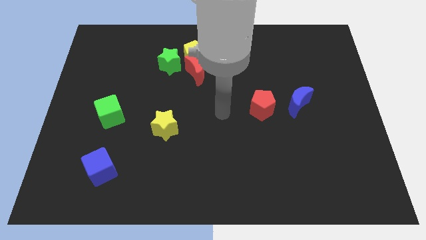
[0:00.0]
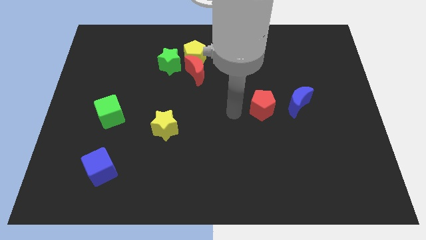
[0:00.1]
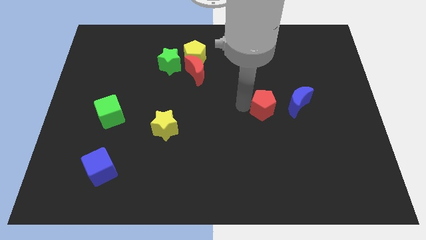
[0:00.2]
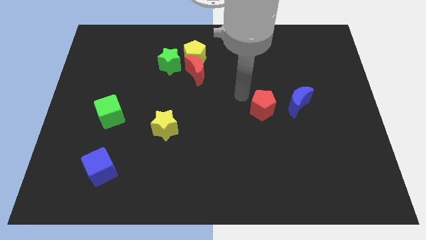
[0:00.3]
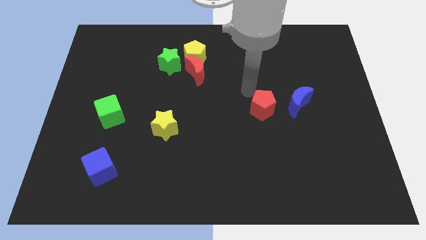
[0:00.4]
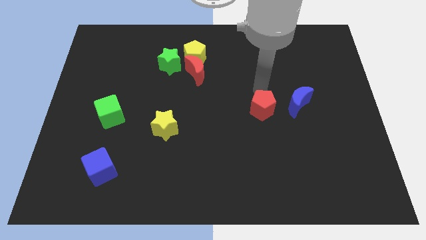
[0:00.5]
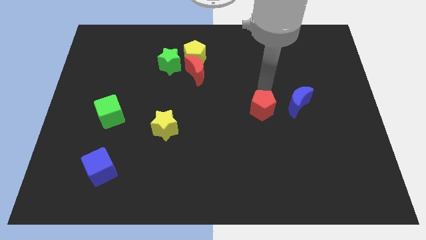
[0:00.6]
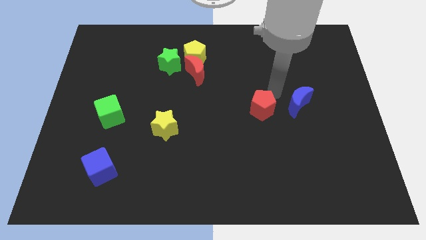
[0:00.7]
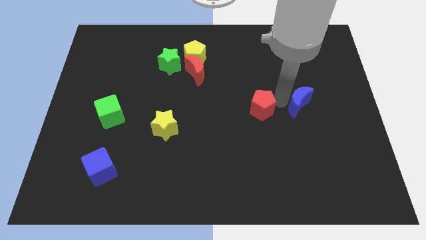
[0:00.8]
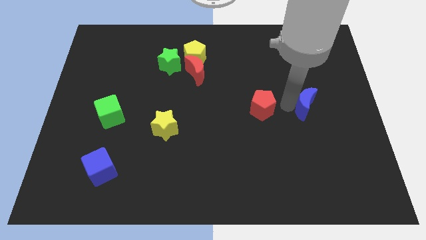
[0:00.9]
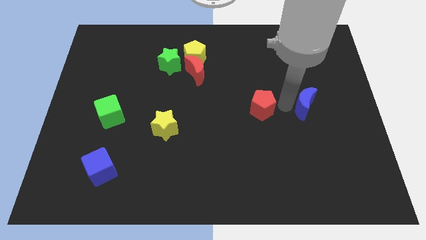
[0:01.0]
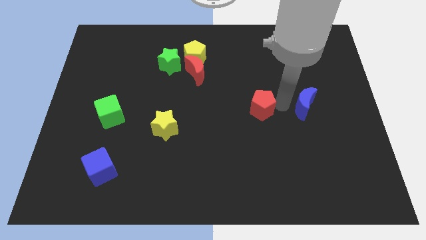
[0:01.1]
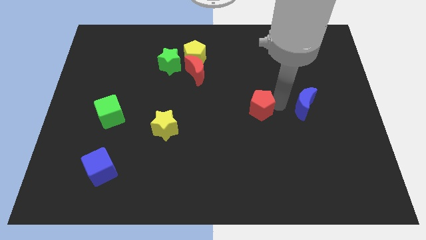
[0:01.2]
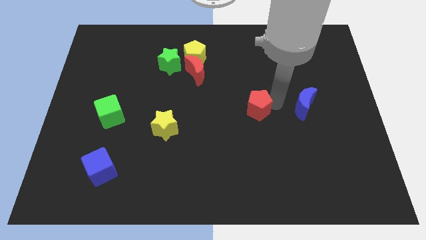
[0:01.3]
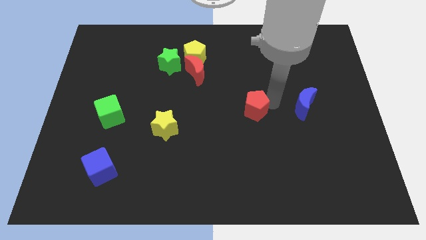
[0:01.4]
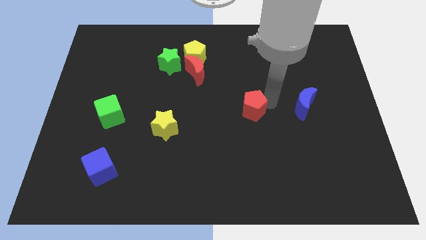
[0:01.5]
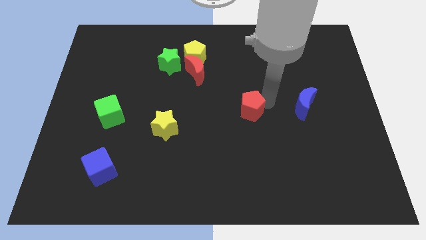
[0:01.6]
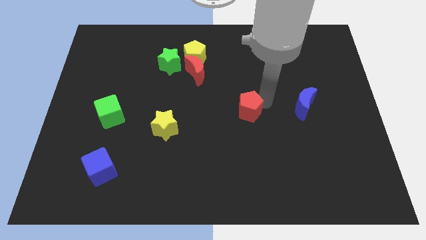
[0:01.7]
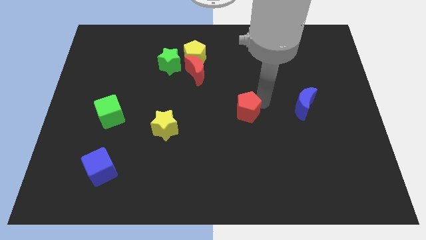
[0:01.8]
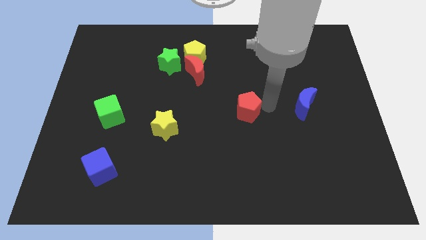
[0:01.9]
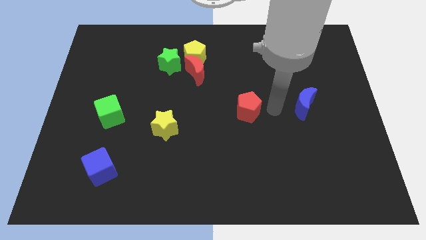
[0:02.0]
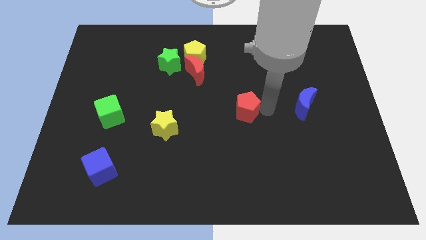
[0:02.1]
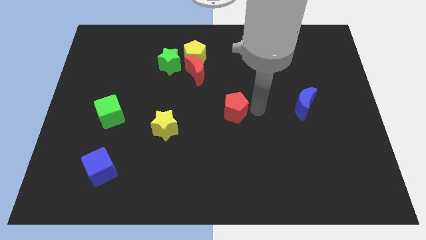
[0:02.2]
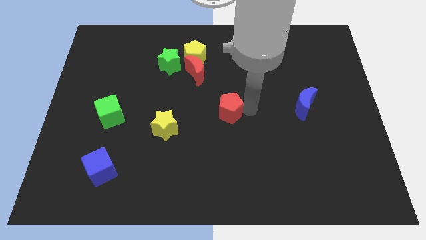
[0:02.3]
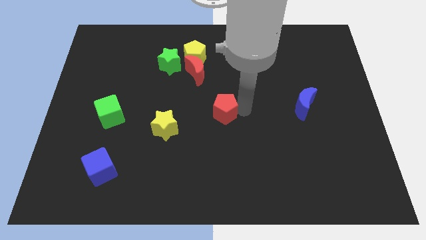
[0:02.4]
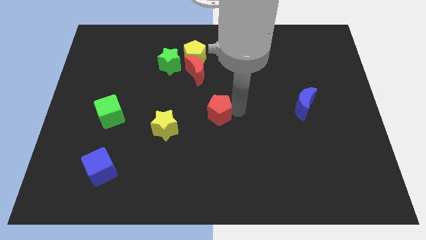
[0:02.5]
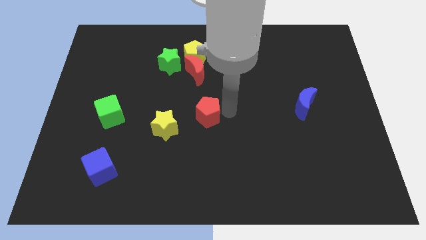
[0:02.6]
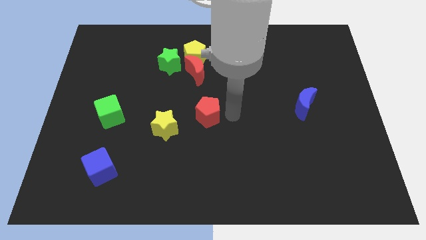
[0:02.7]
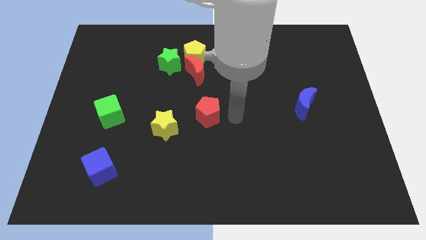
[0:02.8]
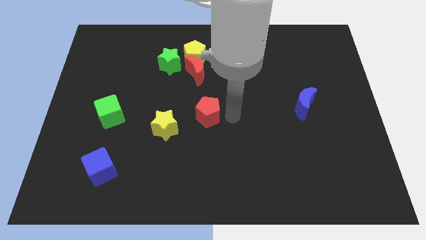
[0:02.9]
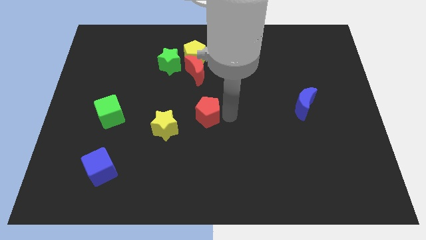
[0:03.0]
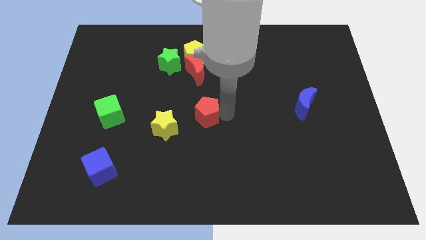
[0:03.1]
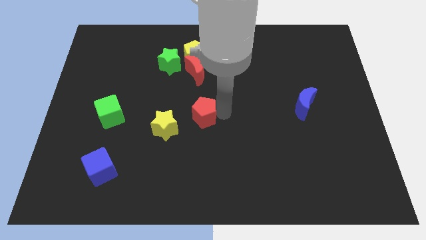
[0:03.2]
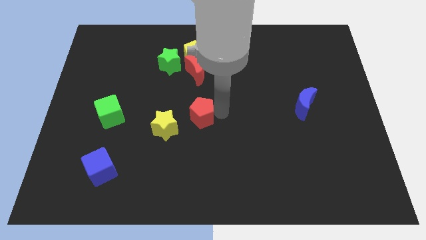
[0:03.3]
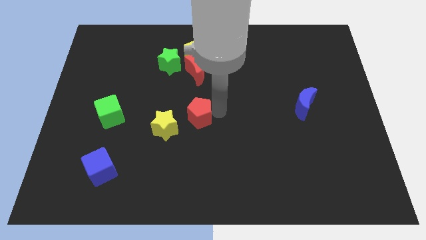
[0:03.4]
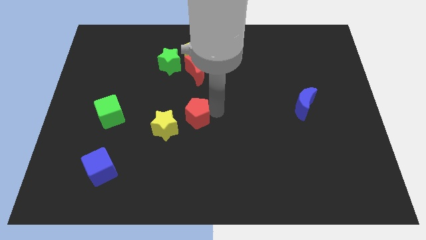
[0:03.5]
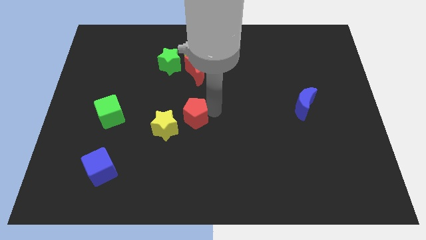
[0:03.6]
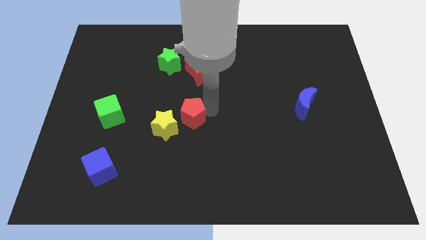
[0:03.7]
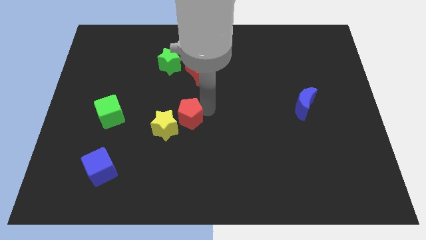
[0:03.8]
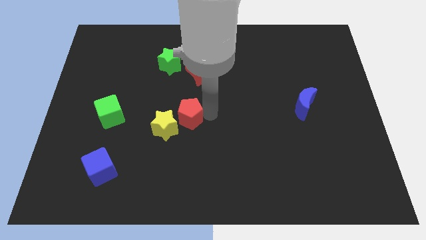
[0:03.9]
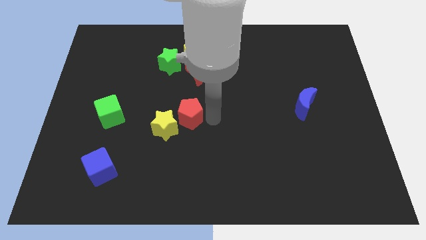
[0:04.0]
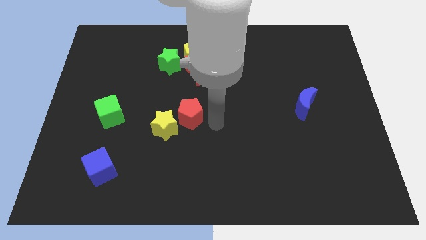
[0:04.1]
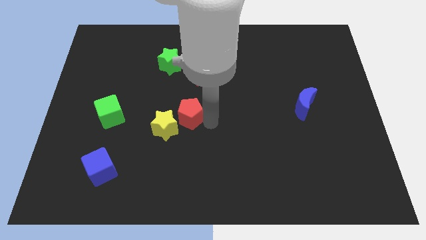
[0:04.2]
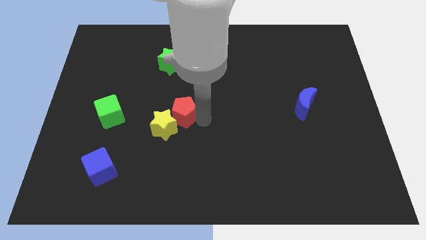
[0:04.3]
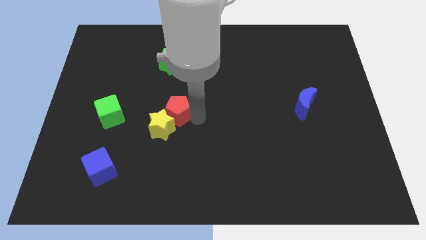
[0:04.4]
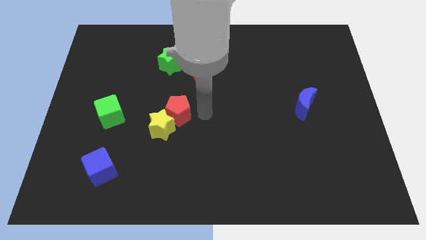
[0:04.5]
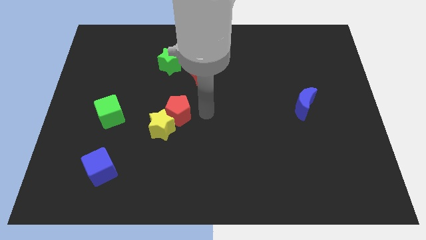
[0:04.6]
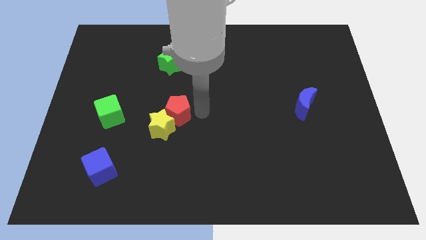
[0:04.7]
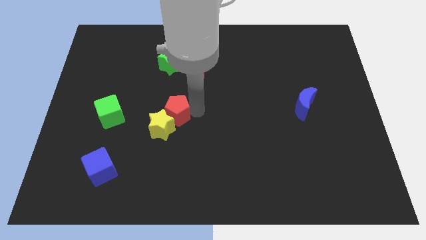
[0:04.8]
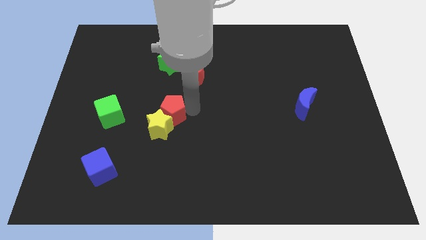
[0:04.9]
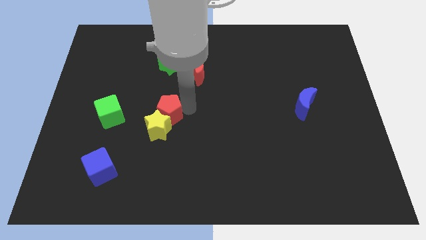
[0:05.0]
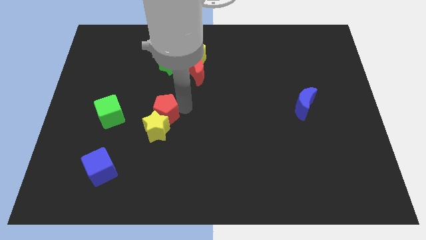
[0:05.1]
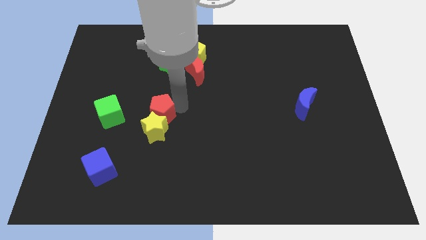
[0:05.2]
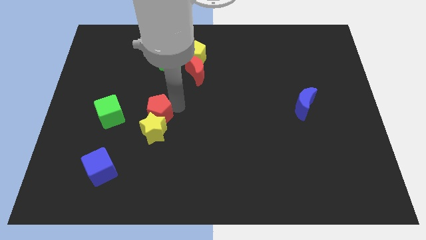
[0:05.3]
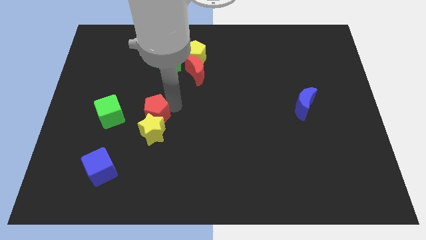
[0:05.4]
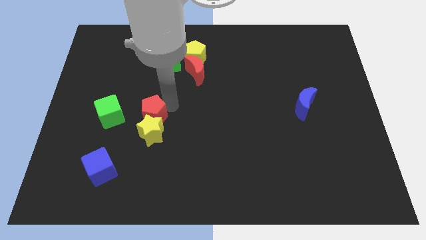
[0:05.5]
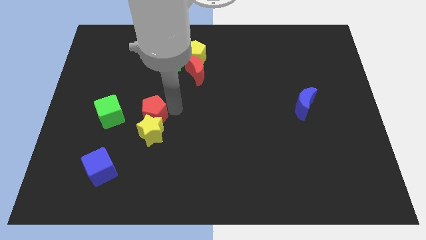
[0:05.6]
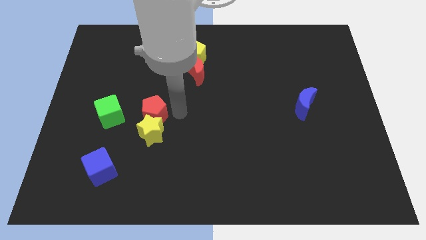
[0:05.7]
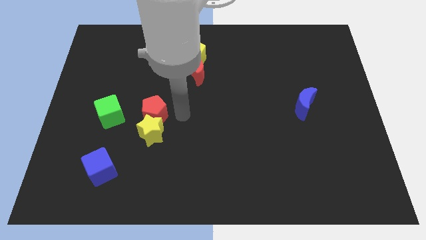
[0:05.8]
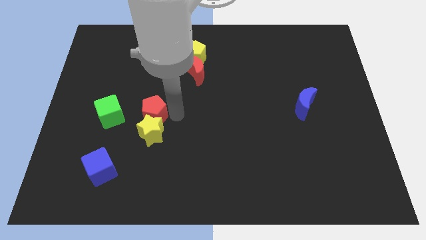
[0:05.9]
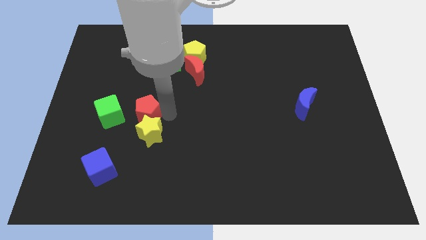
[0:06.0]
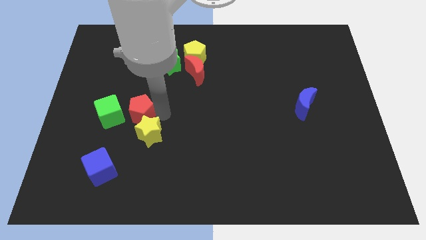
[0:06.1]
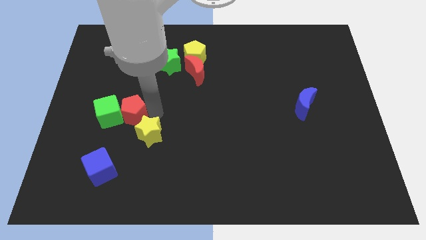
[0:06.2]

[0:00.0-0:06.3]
slide the red pentagon next to the green cube

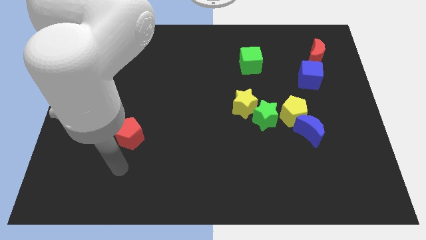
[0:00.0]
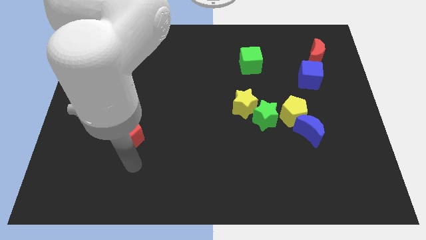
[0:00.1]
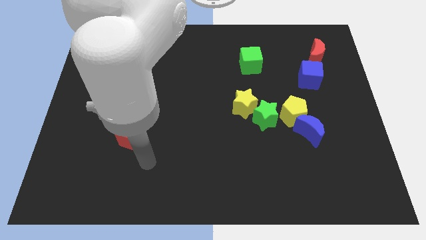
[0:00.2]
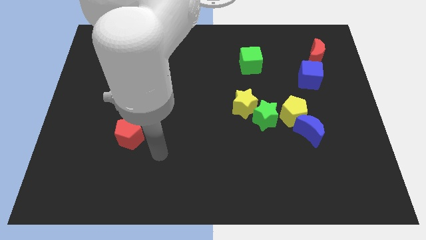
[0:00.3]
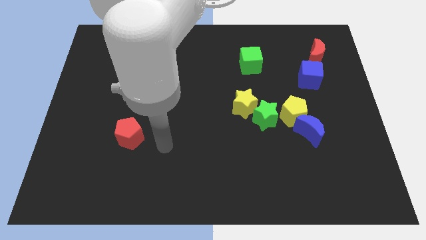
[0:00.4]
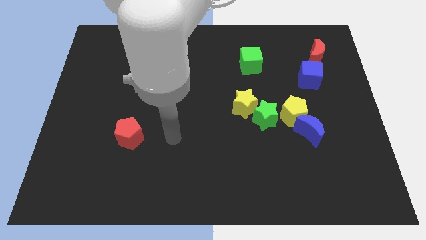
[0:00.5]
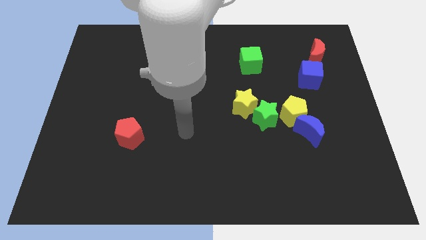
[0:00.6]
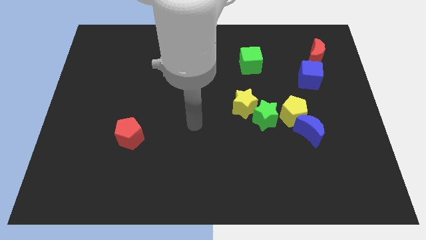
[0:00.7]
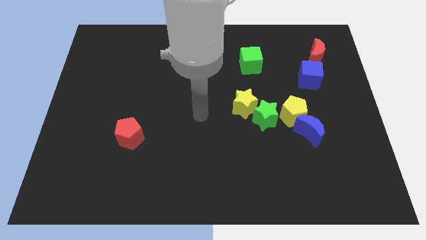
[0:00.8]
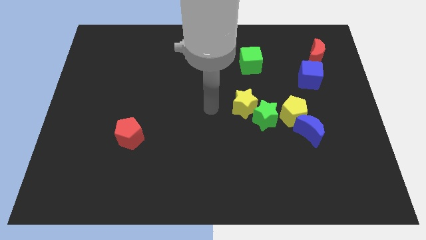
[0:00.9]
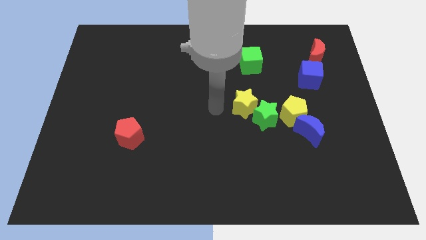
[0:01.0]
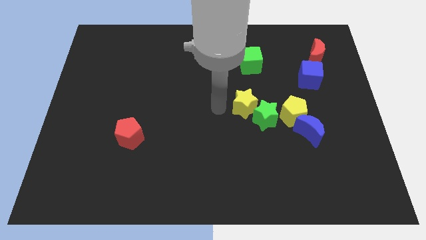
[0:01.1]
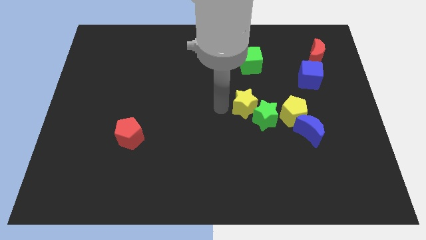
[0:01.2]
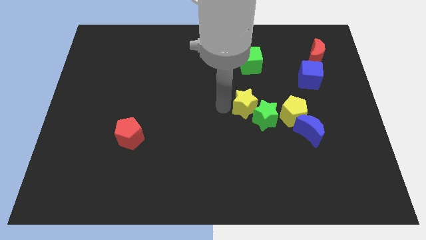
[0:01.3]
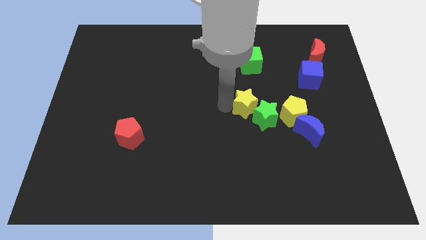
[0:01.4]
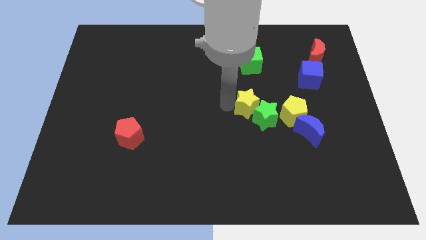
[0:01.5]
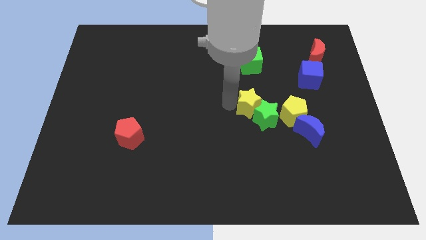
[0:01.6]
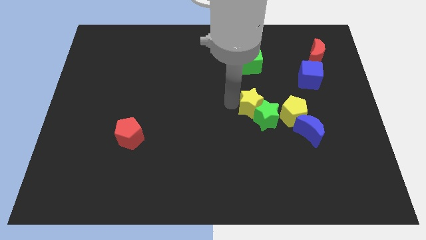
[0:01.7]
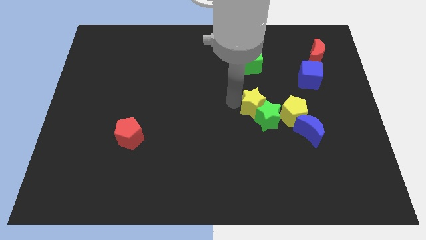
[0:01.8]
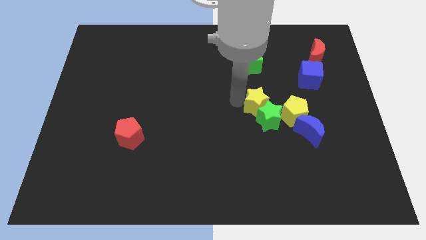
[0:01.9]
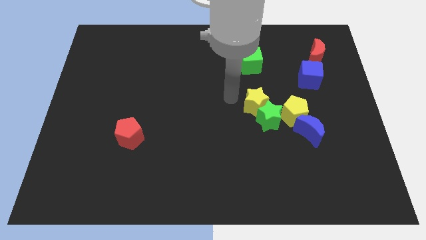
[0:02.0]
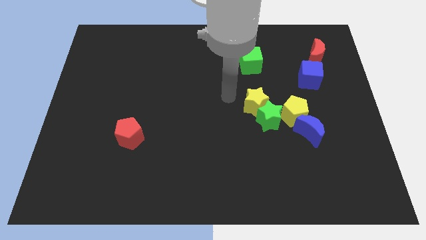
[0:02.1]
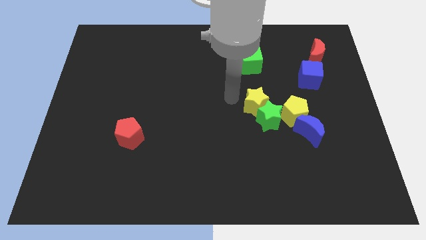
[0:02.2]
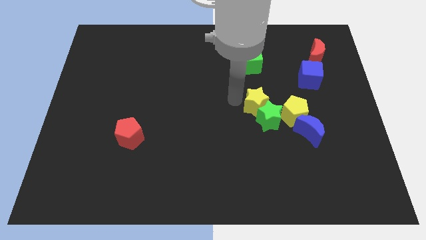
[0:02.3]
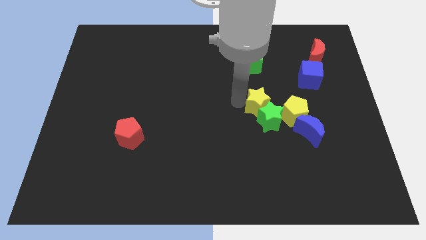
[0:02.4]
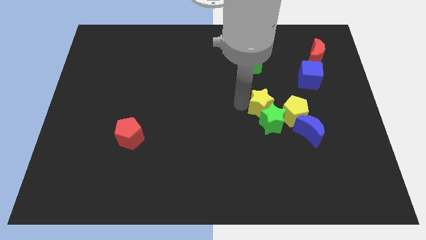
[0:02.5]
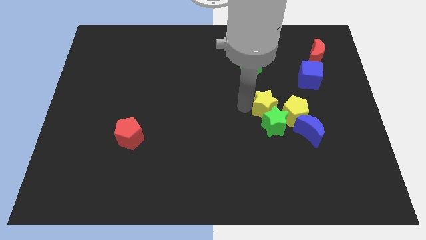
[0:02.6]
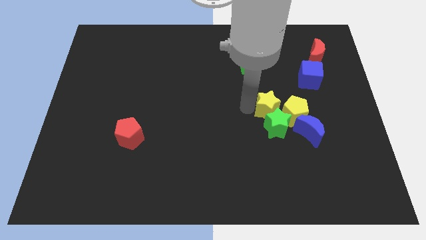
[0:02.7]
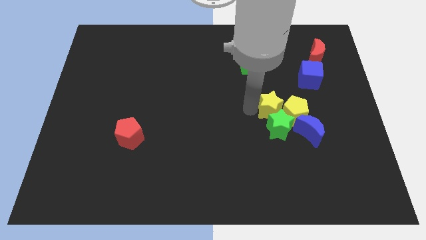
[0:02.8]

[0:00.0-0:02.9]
slide the yellow star close to the yellow pentagon
